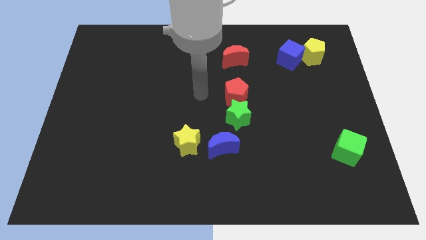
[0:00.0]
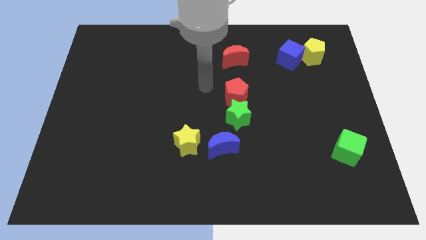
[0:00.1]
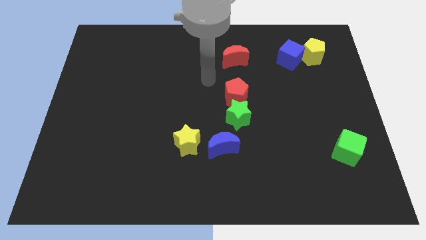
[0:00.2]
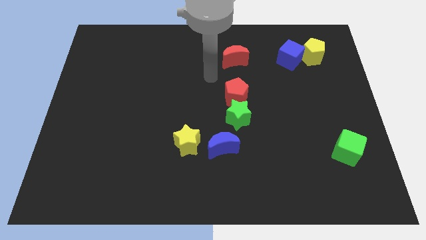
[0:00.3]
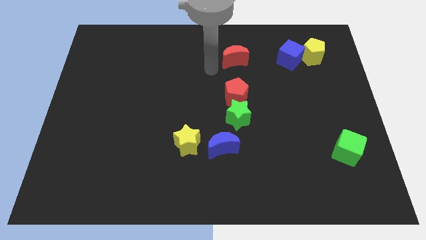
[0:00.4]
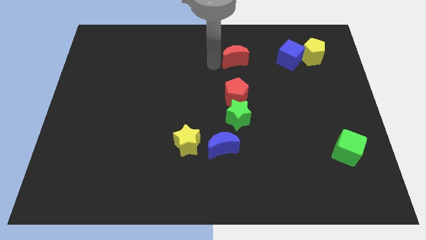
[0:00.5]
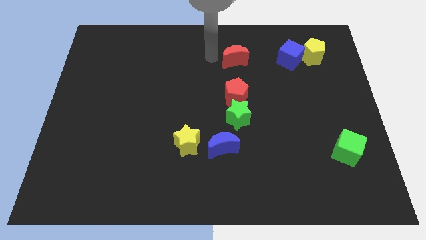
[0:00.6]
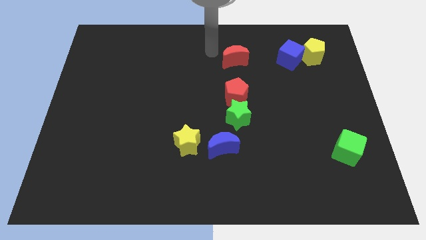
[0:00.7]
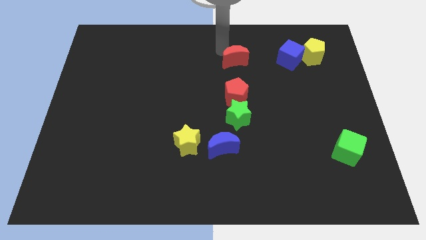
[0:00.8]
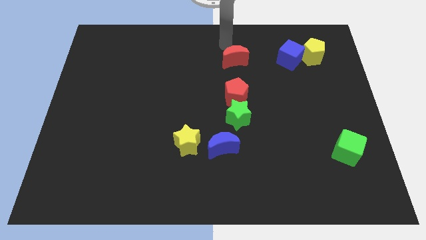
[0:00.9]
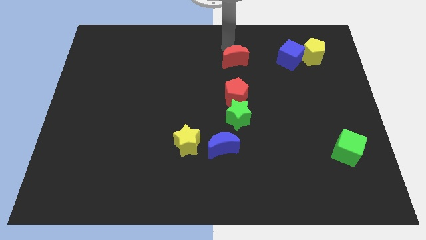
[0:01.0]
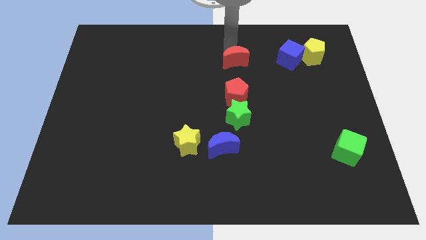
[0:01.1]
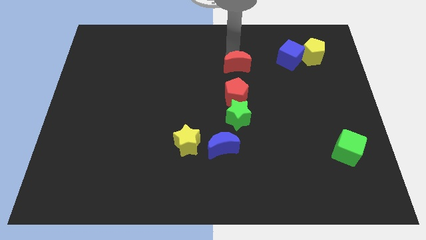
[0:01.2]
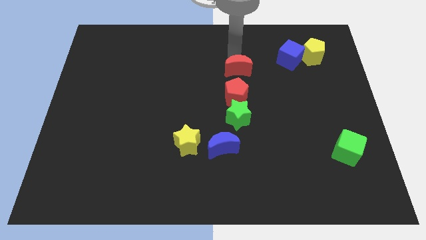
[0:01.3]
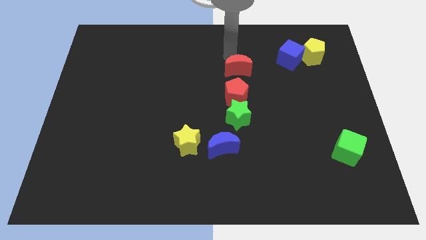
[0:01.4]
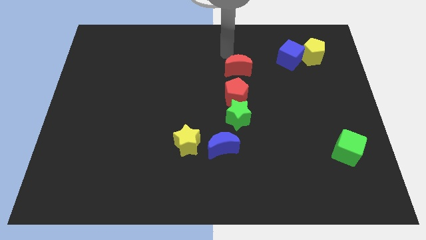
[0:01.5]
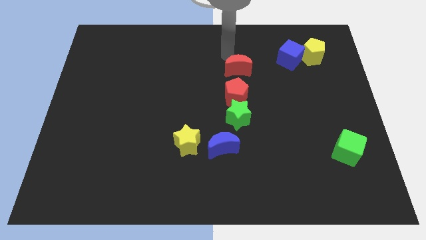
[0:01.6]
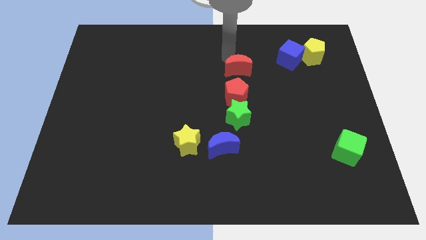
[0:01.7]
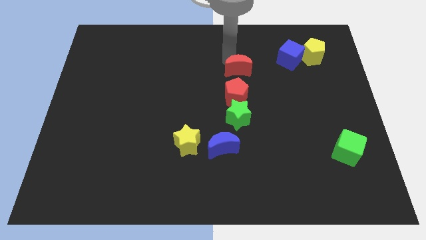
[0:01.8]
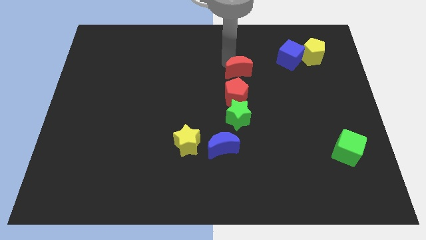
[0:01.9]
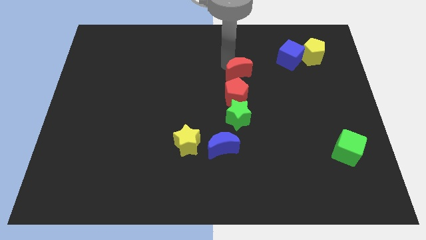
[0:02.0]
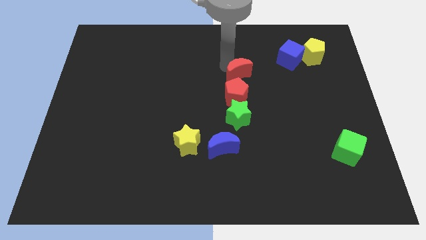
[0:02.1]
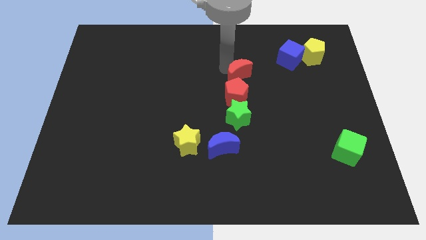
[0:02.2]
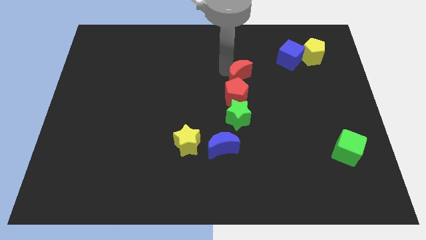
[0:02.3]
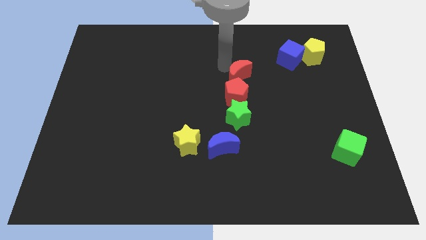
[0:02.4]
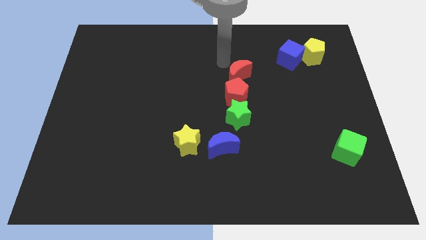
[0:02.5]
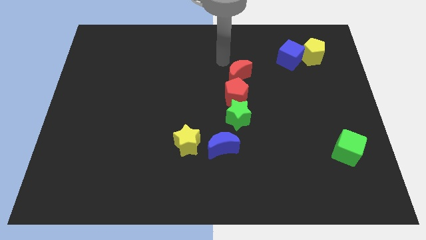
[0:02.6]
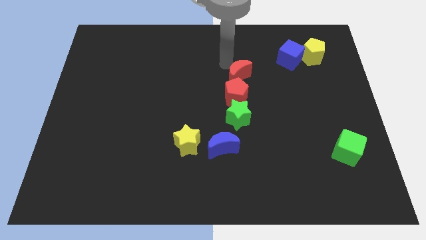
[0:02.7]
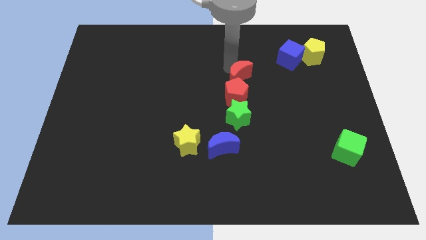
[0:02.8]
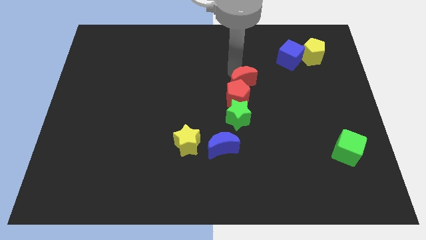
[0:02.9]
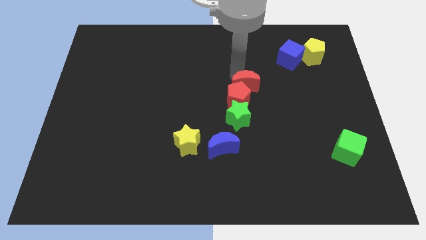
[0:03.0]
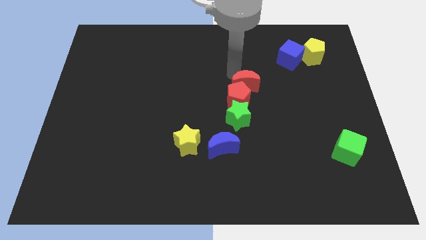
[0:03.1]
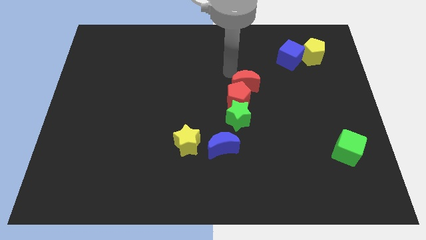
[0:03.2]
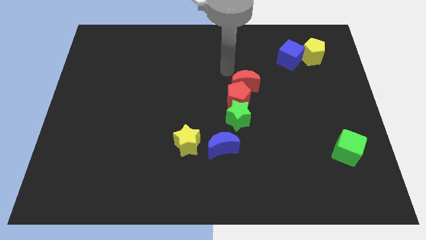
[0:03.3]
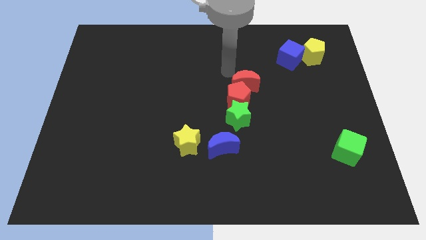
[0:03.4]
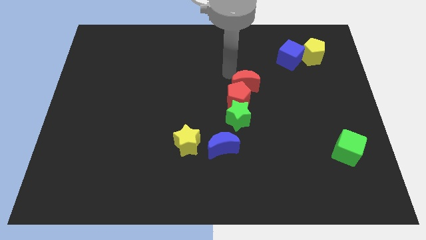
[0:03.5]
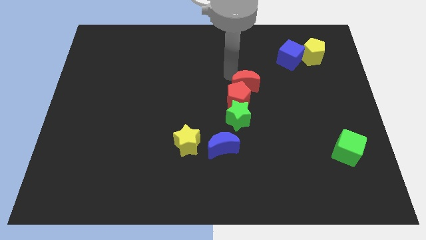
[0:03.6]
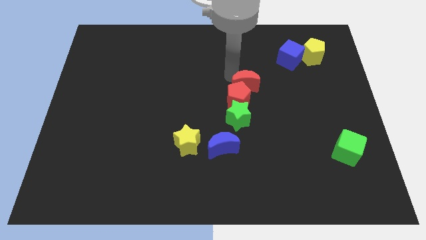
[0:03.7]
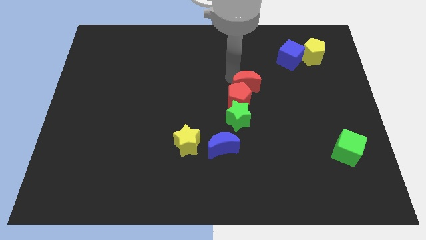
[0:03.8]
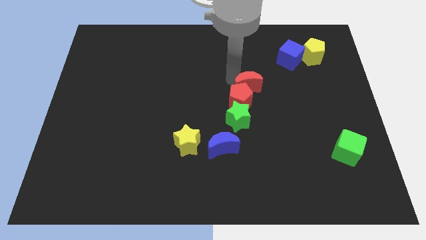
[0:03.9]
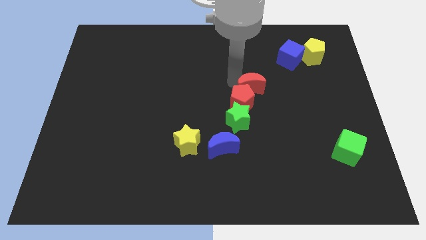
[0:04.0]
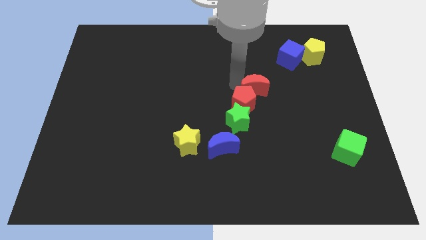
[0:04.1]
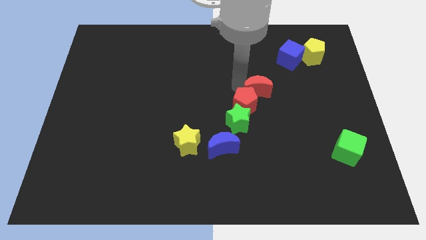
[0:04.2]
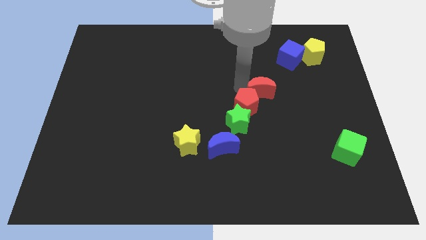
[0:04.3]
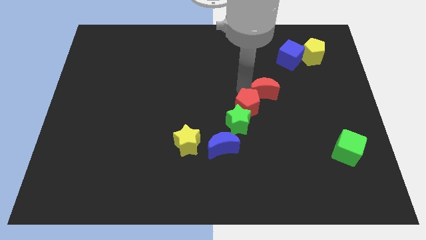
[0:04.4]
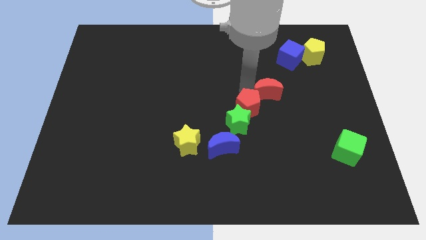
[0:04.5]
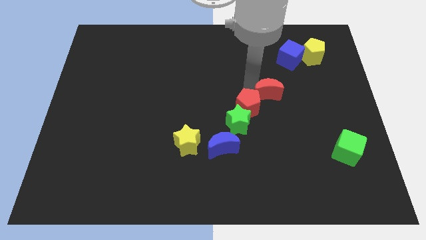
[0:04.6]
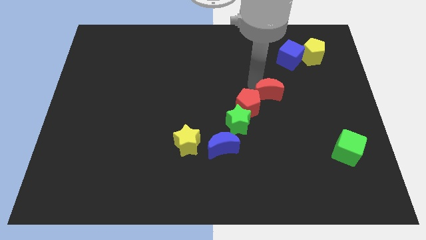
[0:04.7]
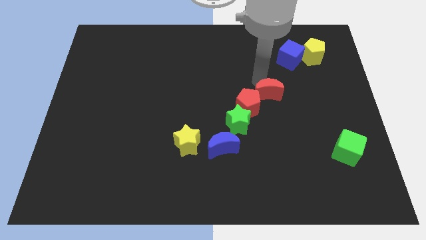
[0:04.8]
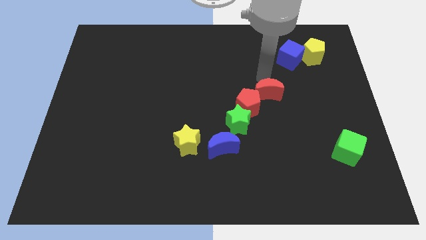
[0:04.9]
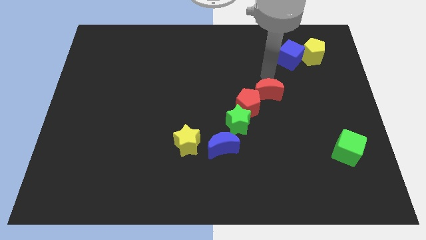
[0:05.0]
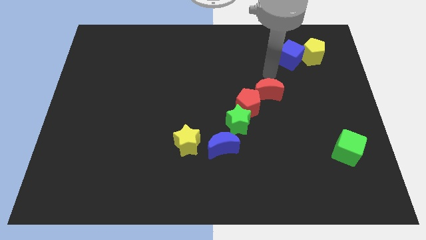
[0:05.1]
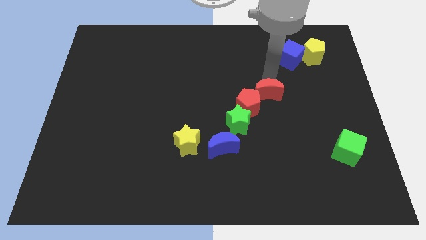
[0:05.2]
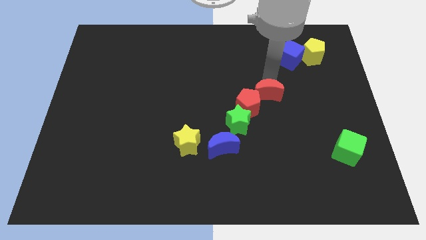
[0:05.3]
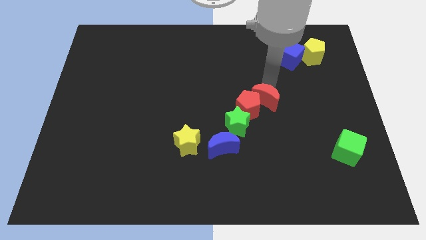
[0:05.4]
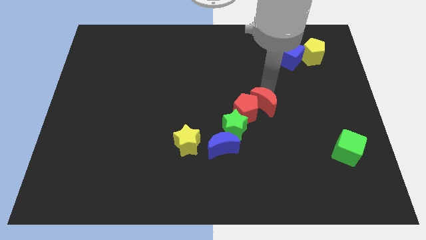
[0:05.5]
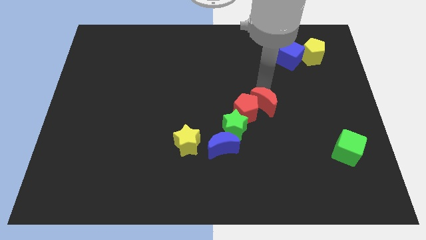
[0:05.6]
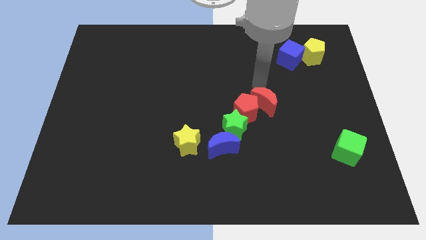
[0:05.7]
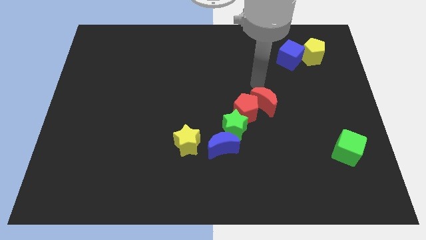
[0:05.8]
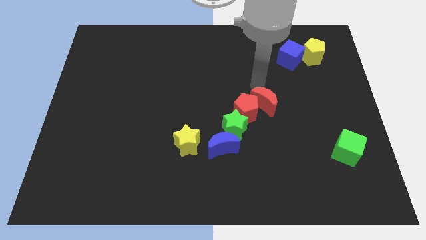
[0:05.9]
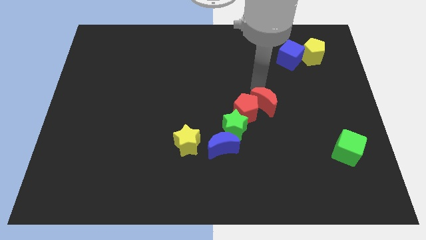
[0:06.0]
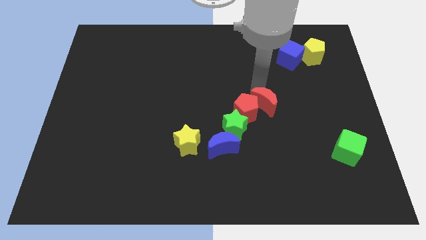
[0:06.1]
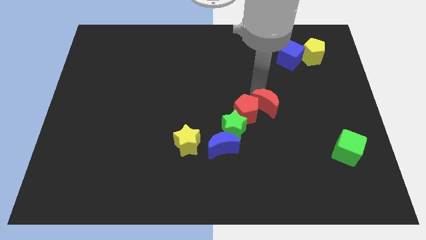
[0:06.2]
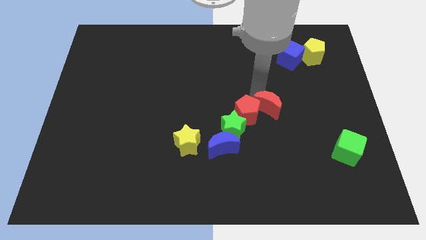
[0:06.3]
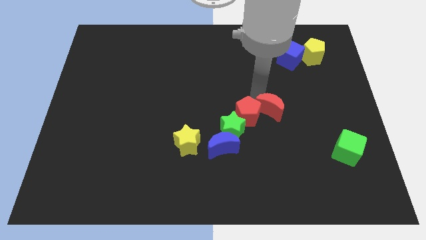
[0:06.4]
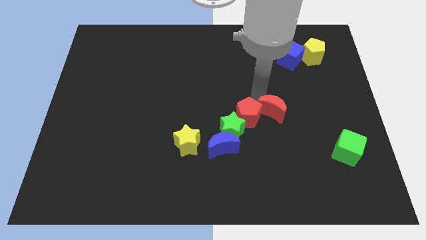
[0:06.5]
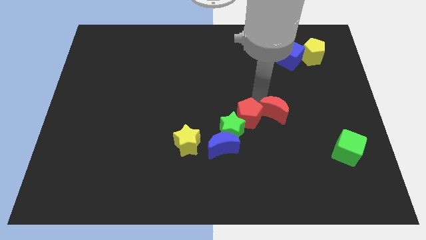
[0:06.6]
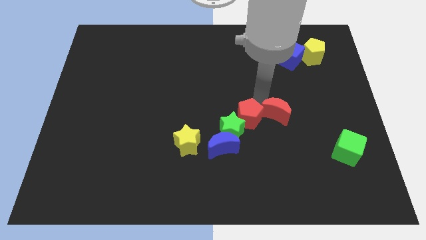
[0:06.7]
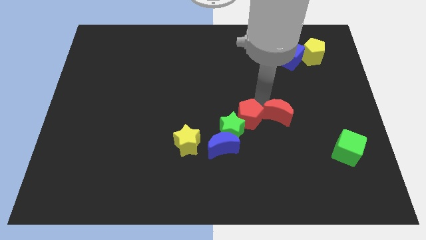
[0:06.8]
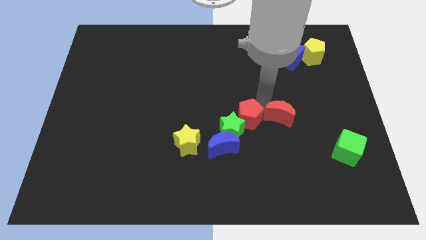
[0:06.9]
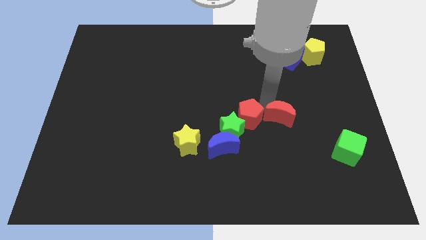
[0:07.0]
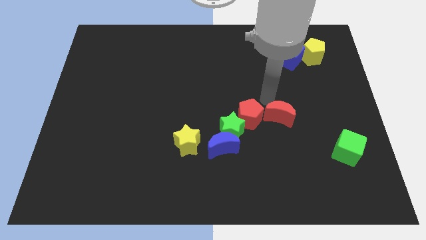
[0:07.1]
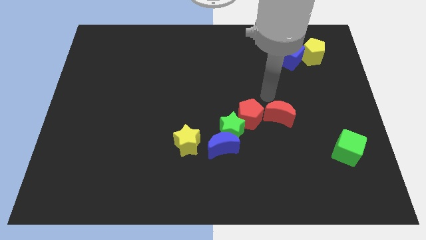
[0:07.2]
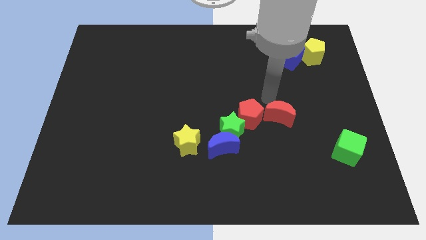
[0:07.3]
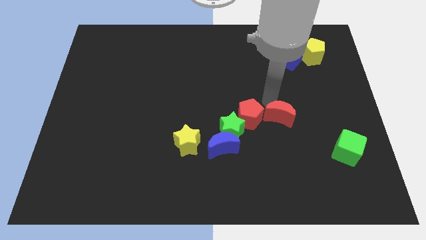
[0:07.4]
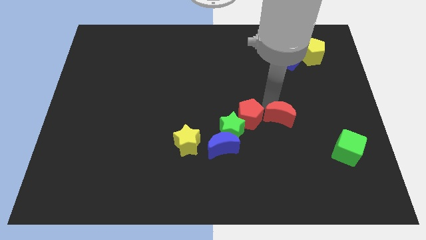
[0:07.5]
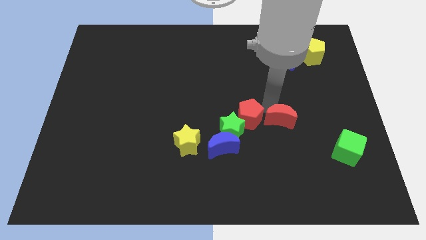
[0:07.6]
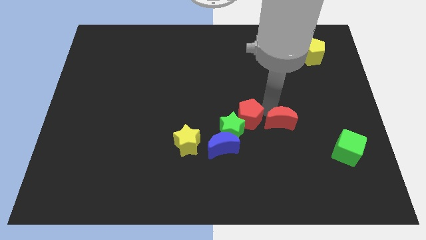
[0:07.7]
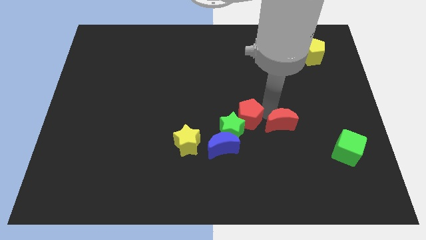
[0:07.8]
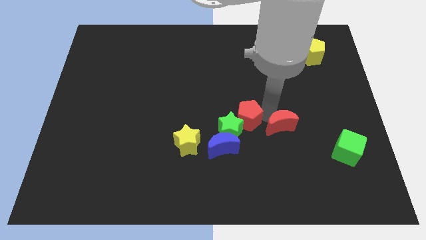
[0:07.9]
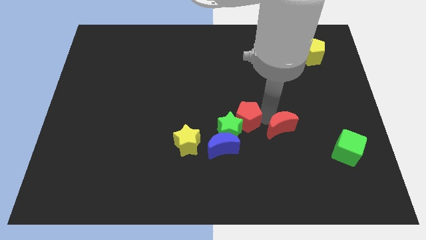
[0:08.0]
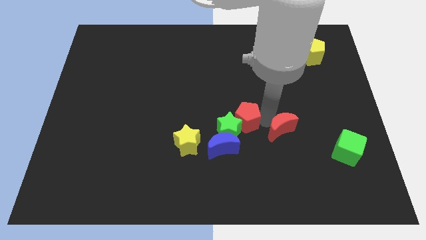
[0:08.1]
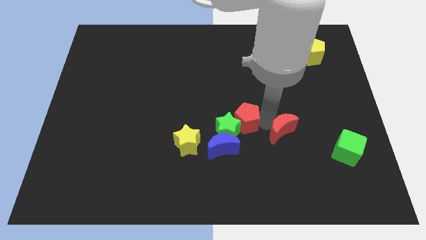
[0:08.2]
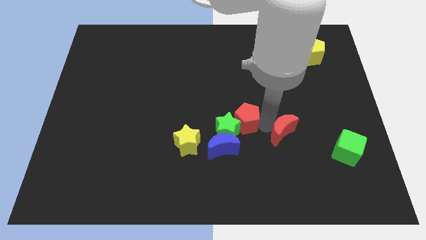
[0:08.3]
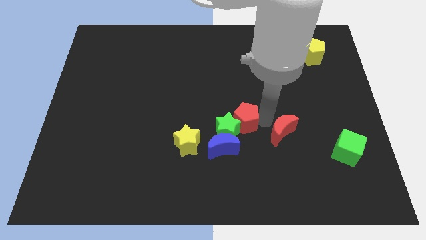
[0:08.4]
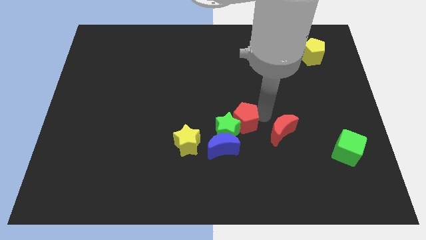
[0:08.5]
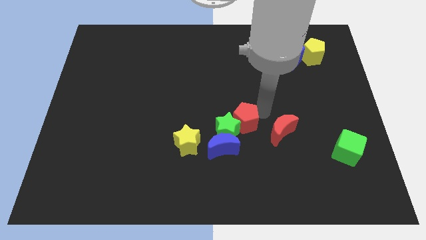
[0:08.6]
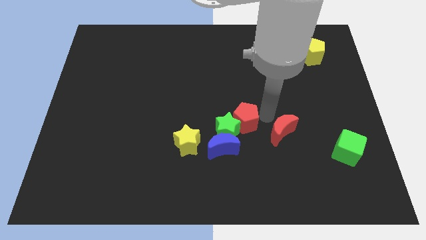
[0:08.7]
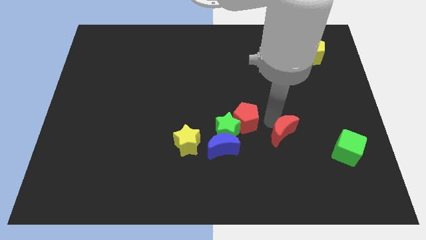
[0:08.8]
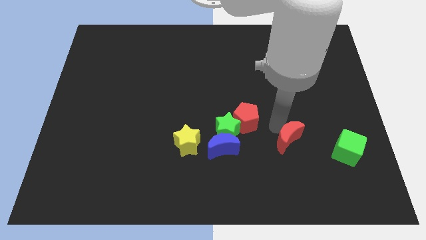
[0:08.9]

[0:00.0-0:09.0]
put the red moon to the left of the green cube
